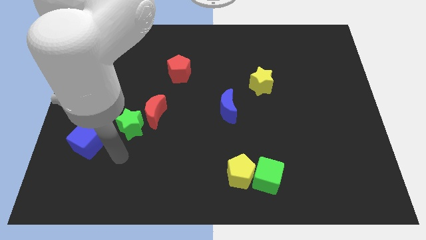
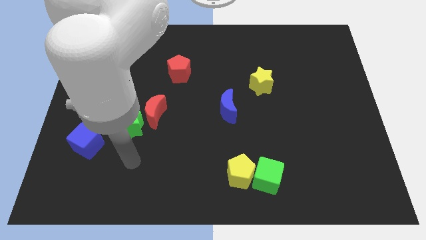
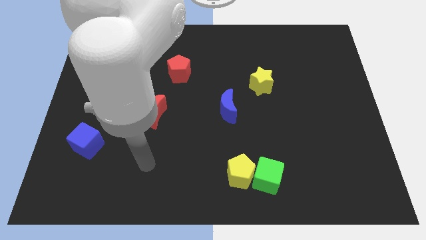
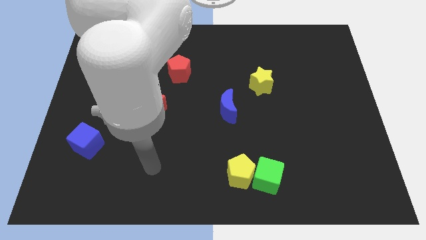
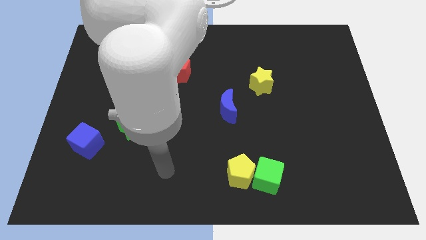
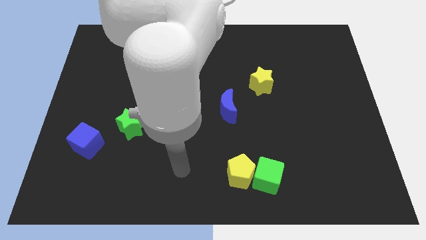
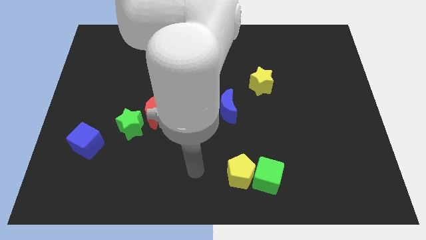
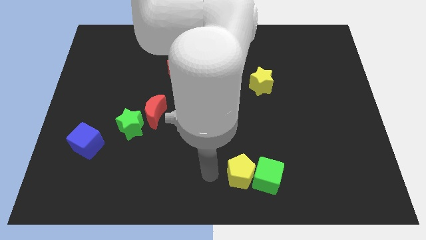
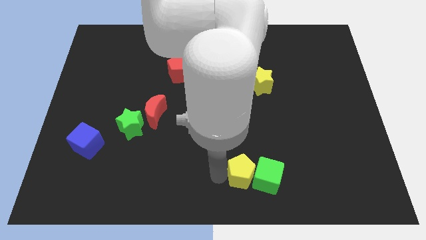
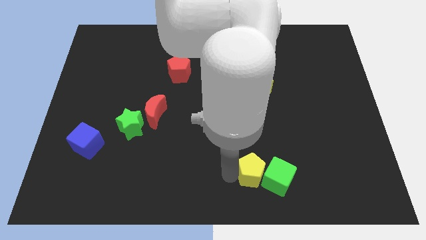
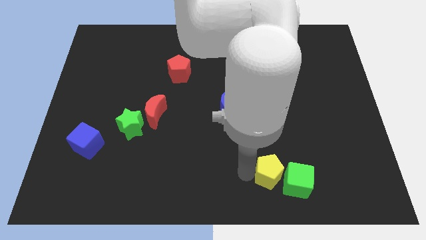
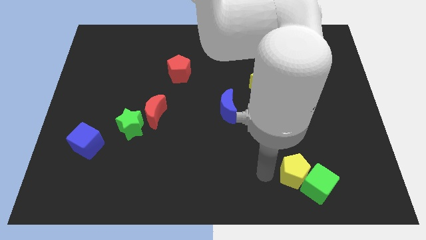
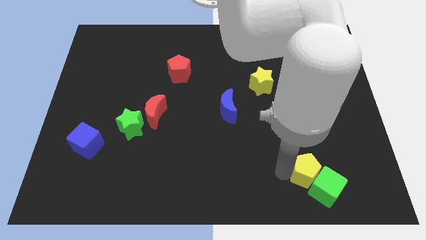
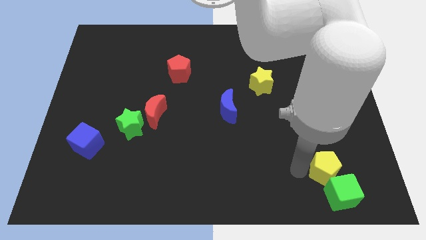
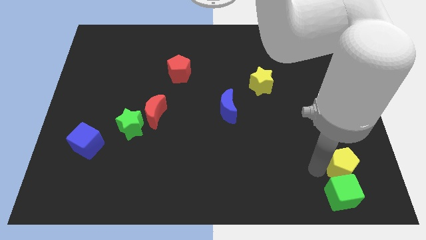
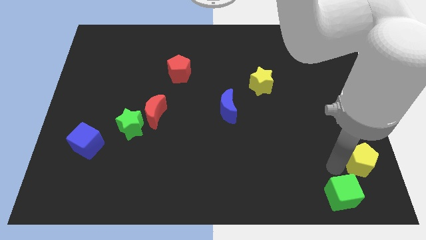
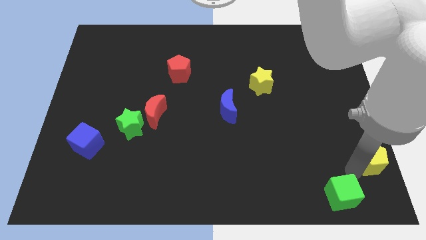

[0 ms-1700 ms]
pull the green cube apart from the yellow pentagon

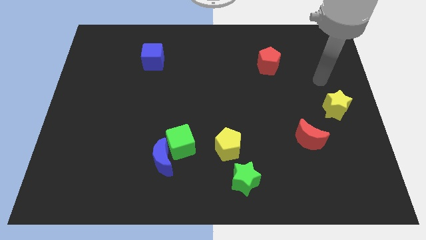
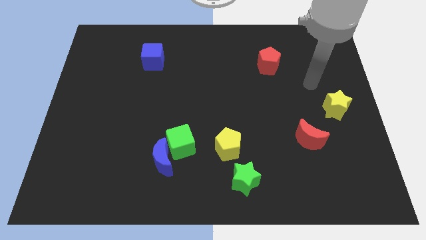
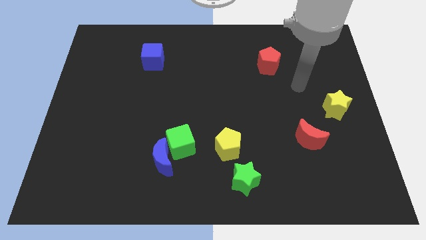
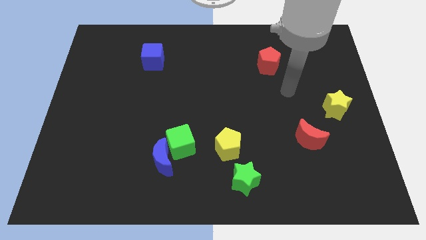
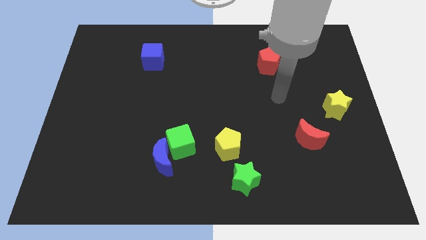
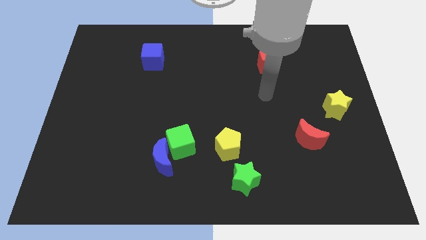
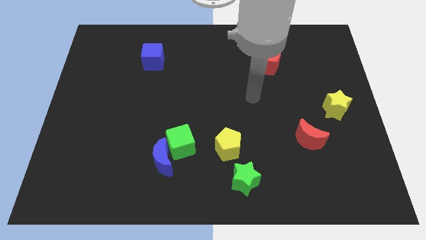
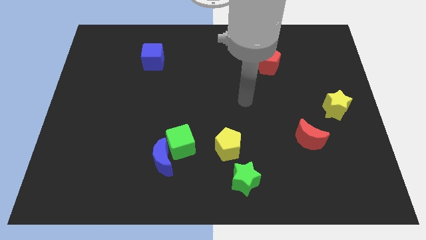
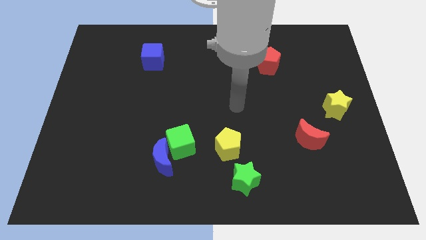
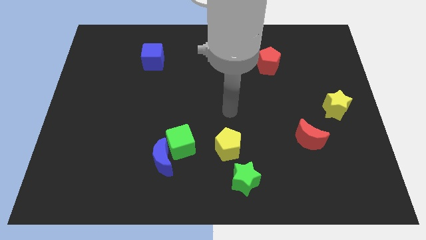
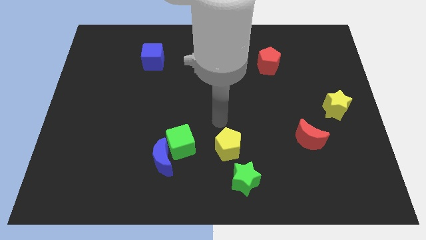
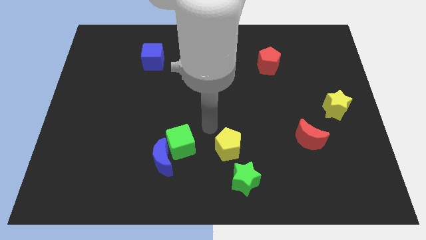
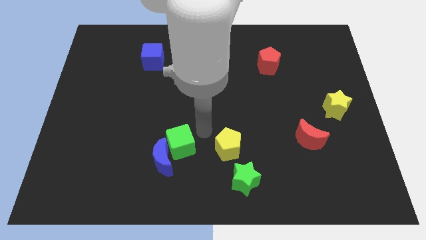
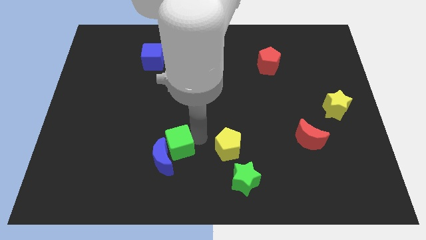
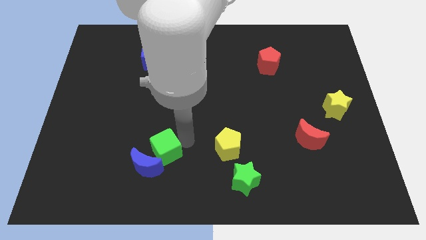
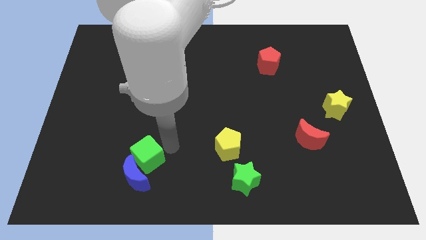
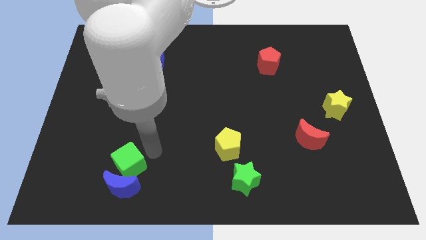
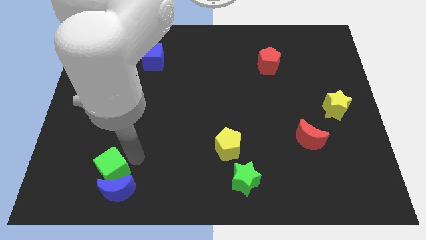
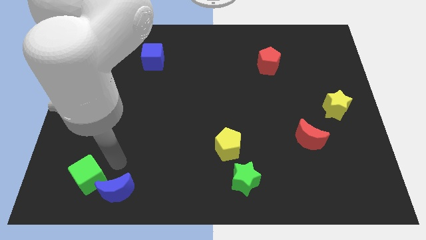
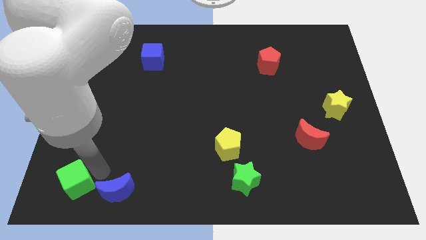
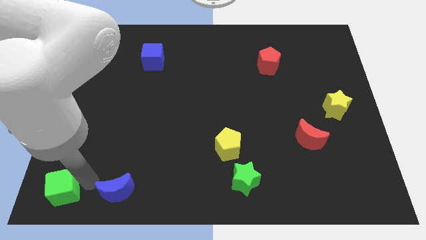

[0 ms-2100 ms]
separate the blue moon from the green cube

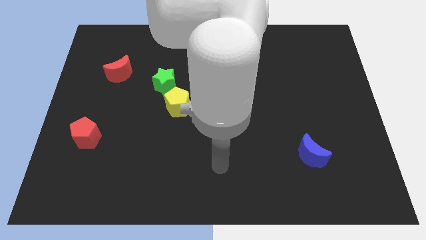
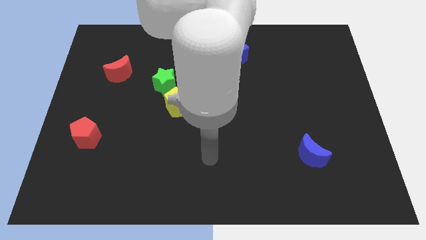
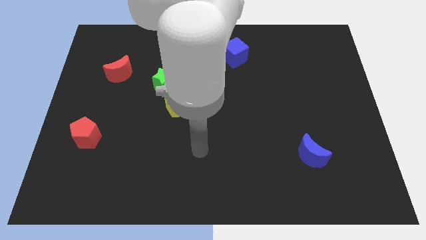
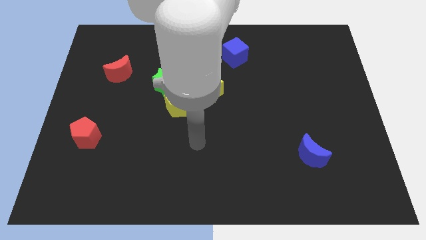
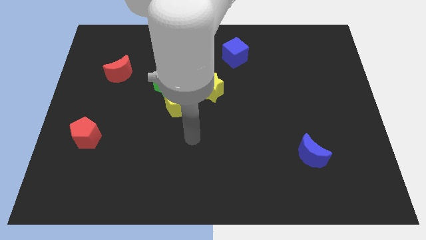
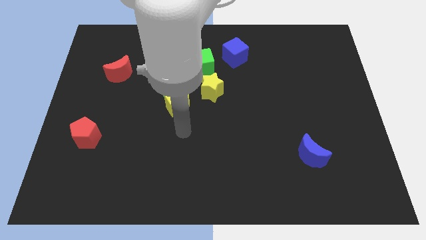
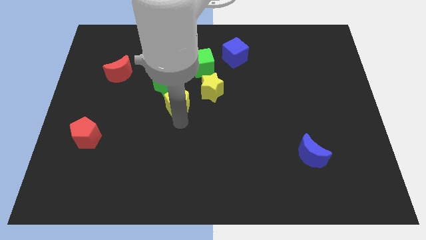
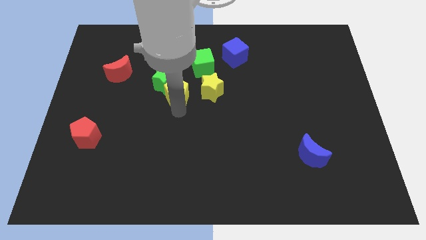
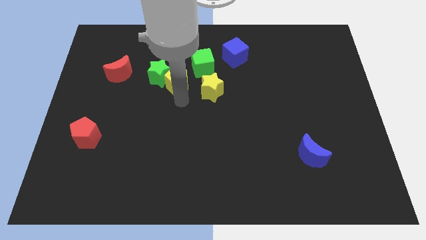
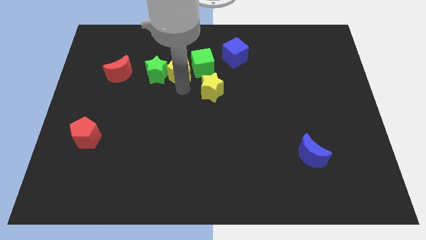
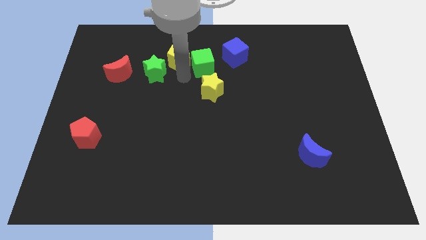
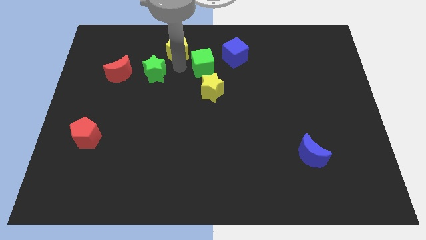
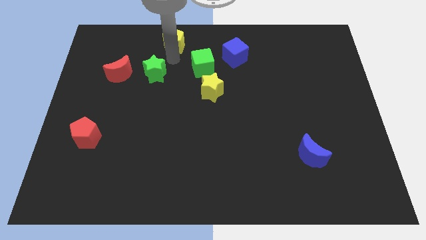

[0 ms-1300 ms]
pull the green star apart from the yellow pentagon

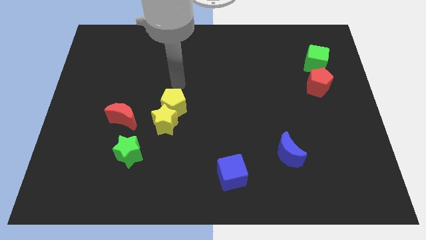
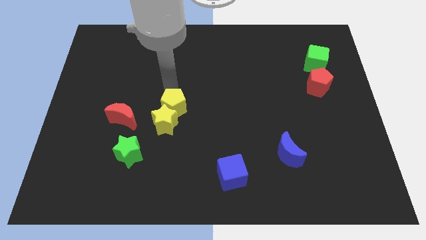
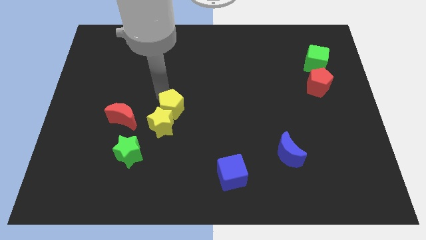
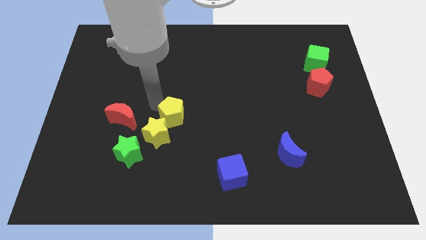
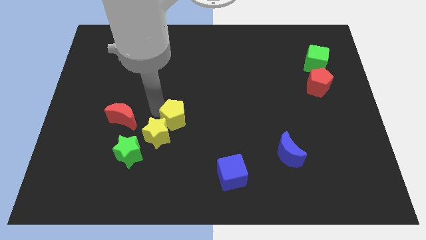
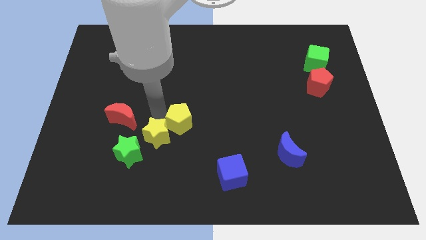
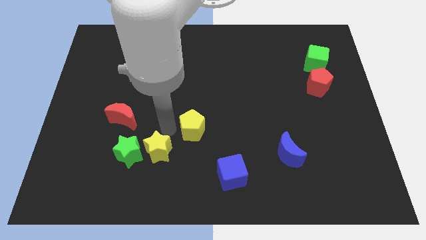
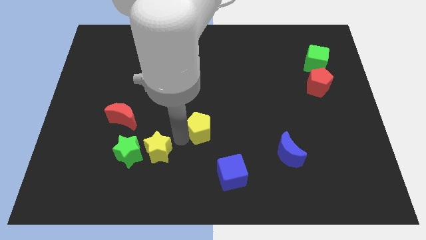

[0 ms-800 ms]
pull the yellow pentagon apart from the yellow star

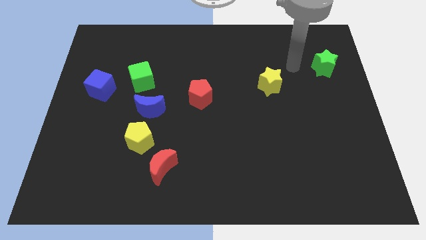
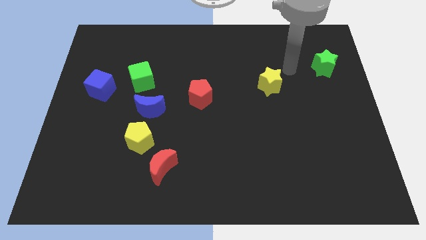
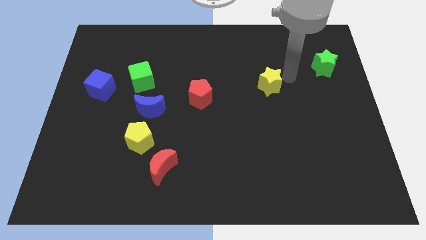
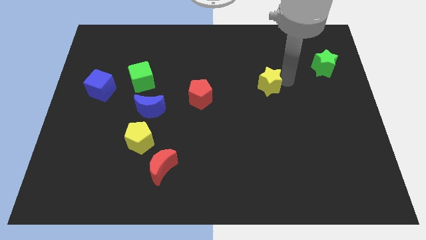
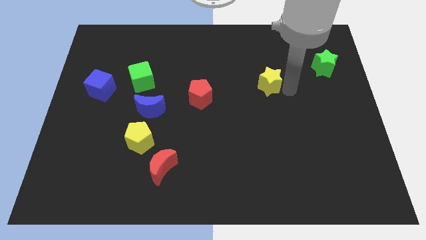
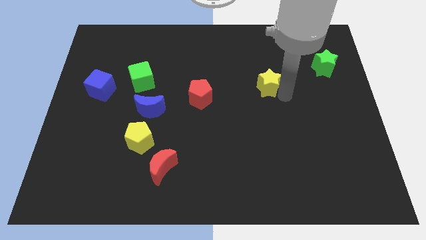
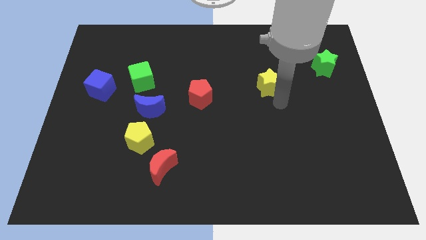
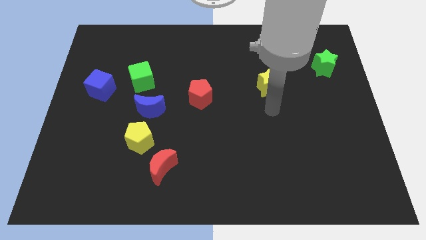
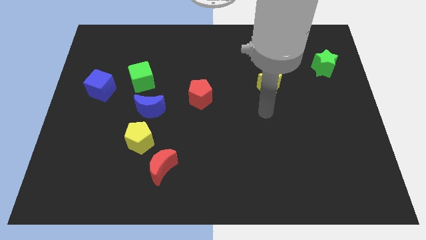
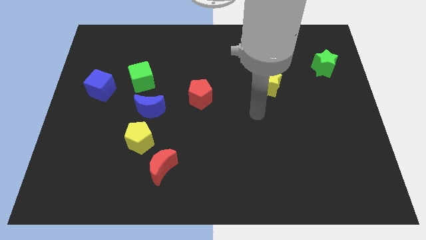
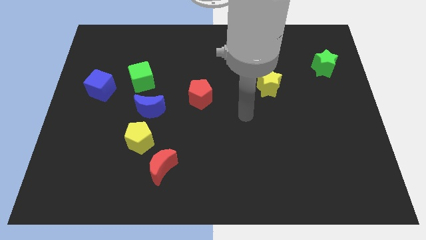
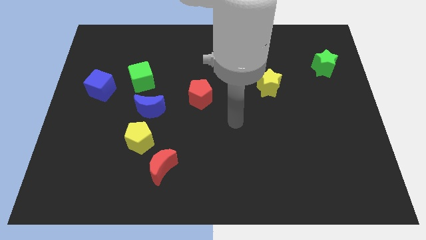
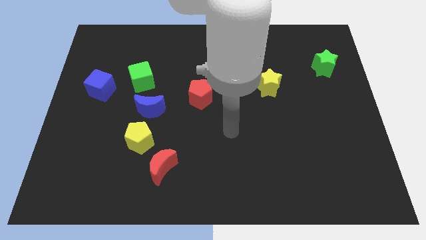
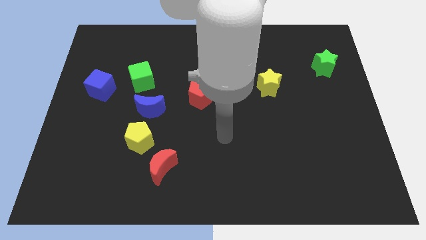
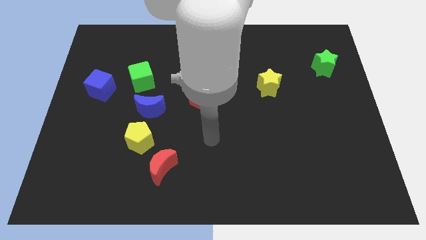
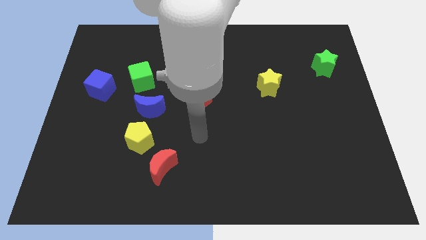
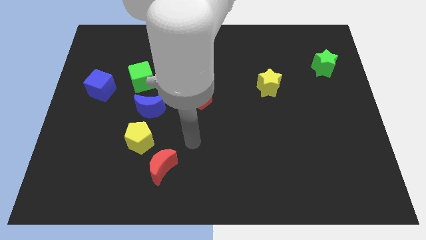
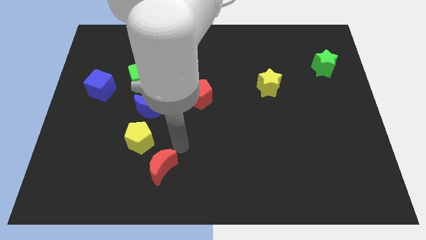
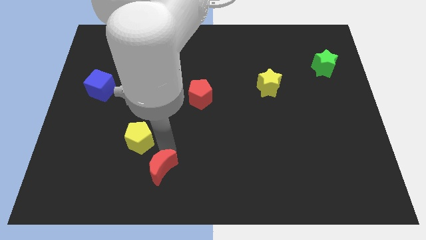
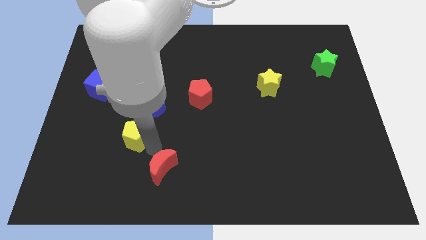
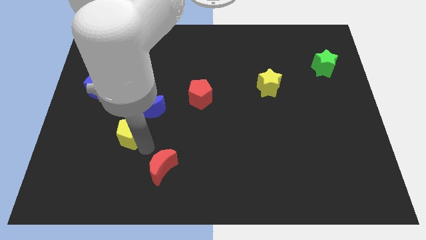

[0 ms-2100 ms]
move the red moon away from the yellow pentagon

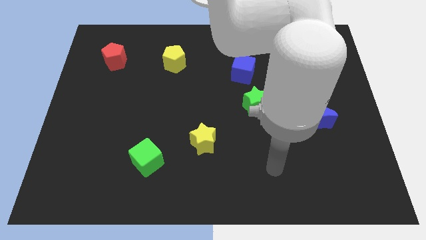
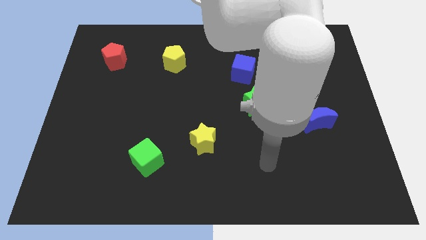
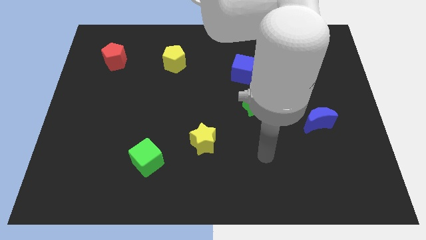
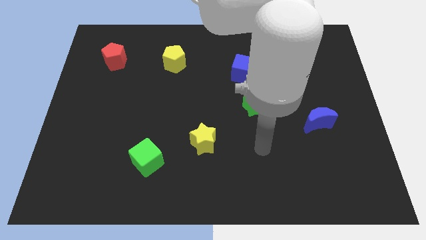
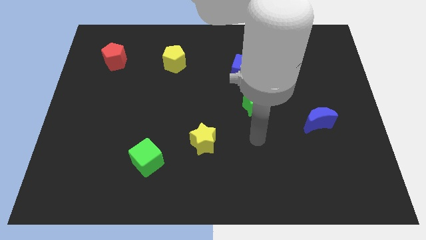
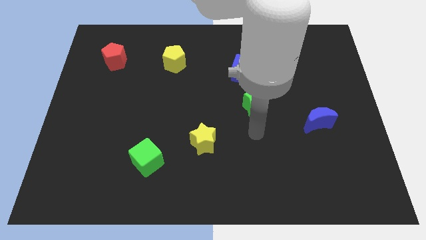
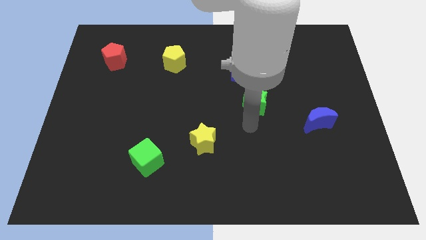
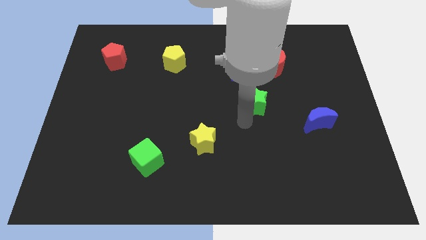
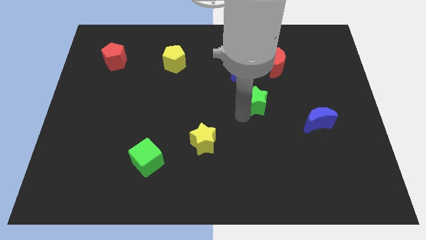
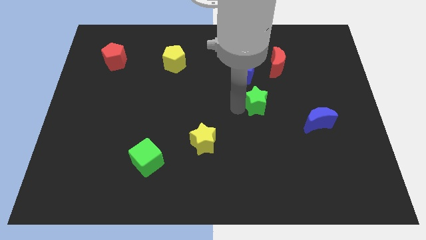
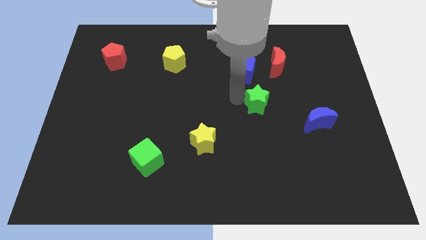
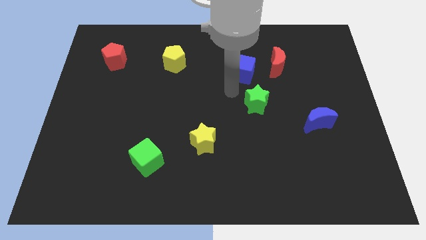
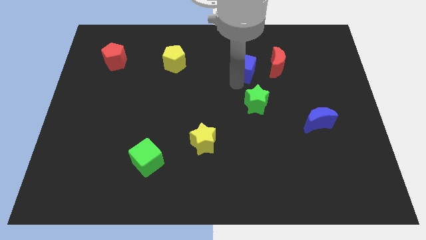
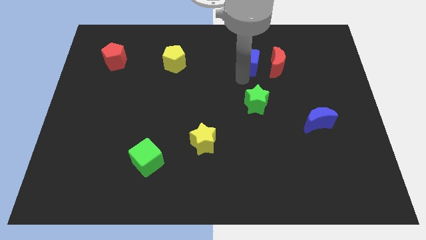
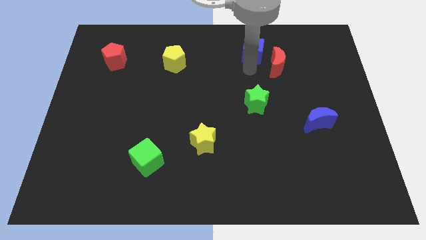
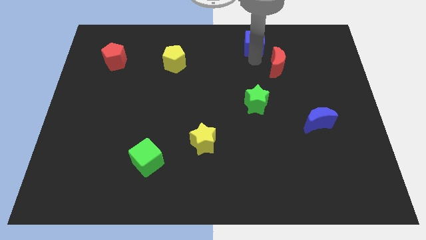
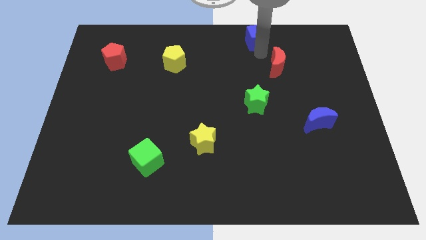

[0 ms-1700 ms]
pull the red moon apart from the blue cube
